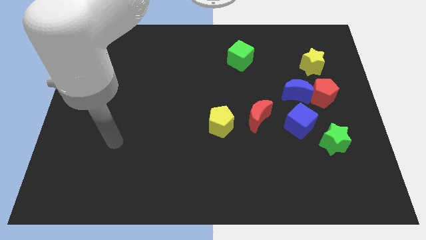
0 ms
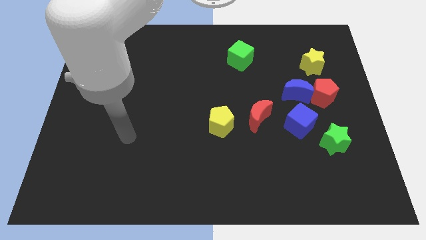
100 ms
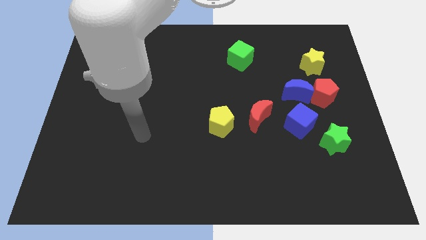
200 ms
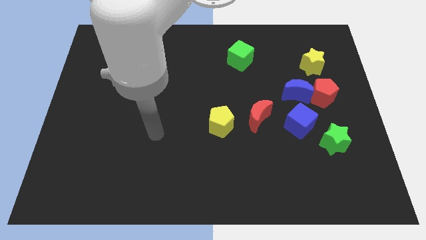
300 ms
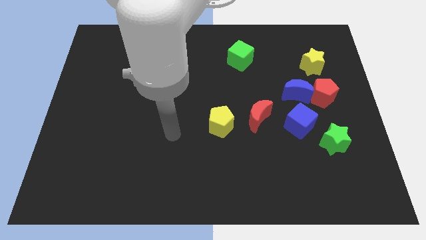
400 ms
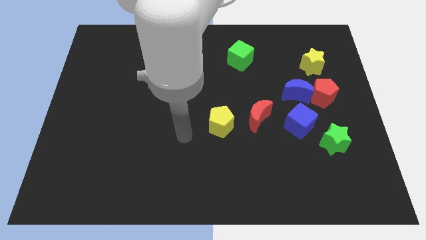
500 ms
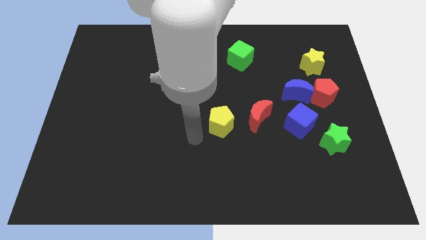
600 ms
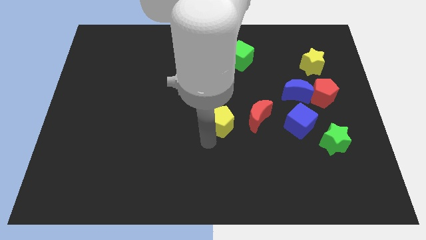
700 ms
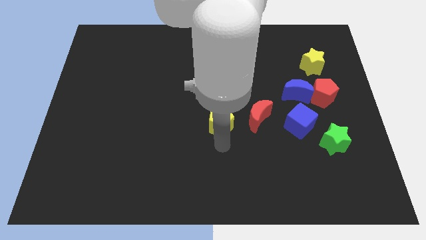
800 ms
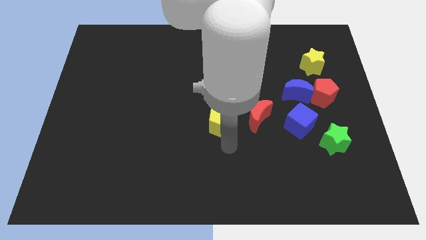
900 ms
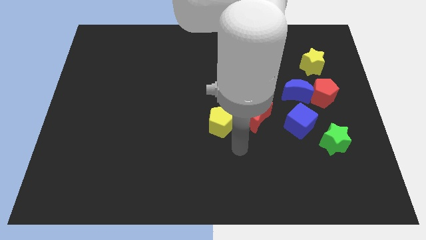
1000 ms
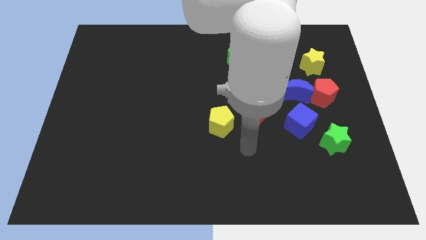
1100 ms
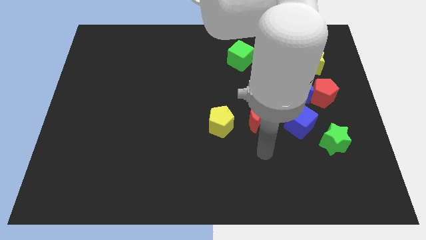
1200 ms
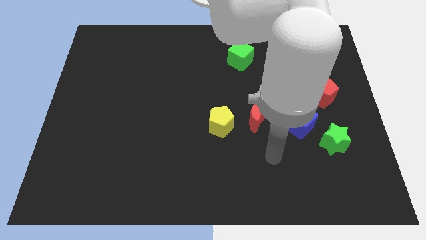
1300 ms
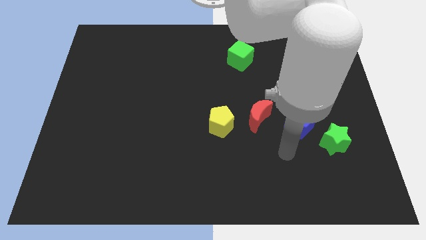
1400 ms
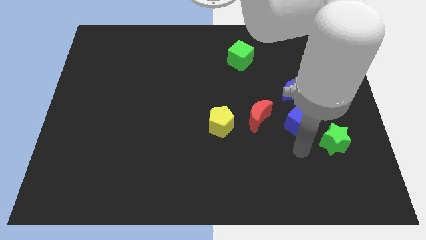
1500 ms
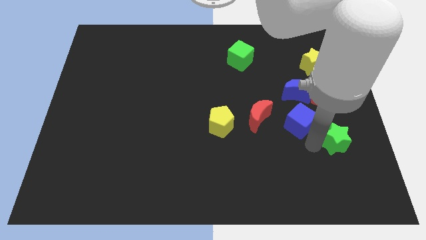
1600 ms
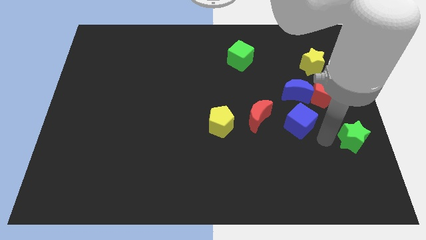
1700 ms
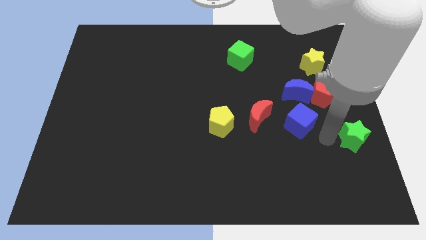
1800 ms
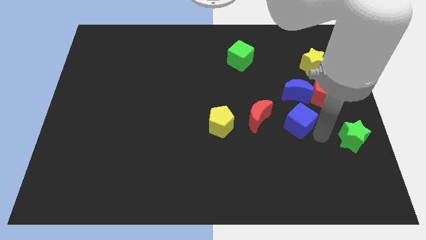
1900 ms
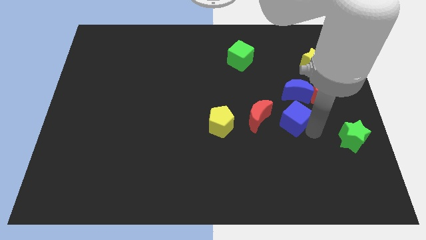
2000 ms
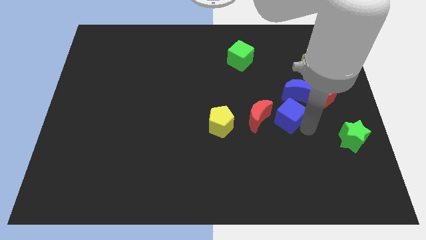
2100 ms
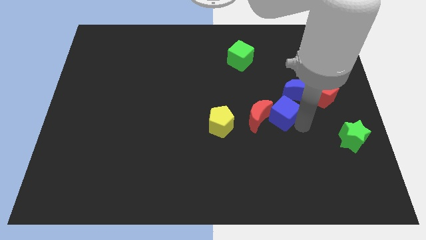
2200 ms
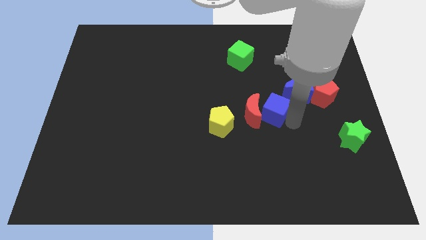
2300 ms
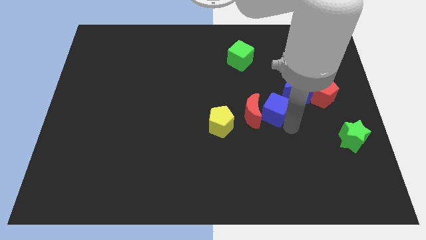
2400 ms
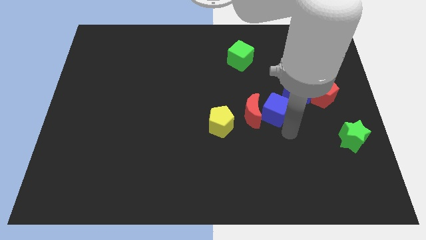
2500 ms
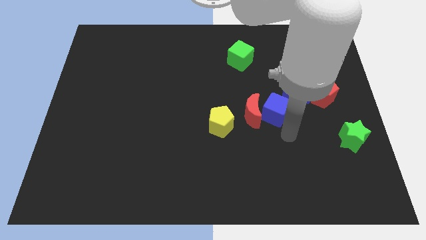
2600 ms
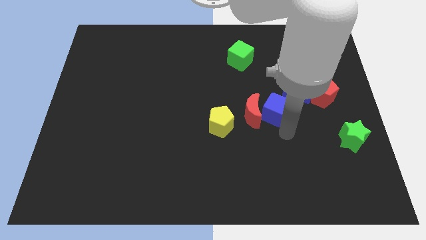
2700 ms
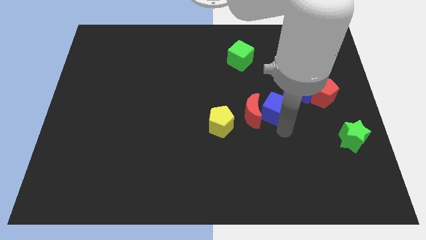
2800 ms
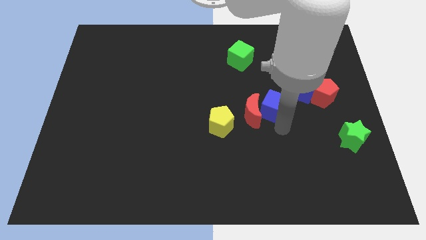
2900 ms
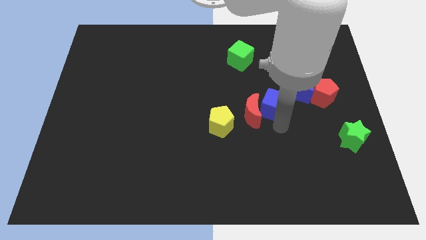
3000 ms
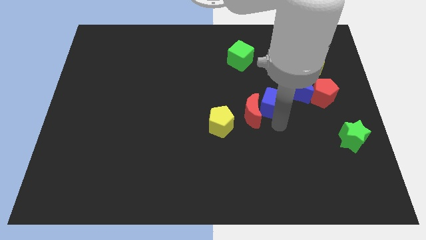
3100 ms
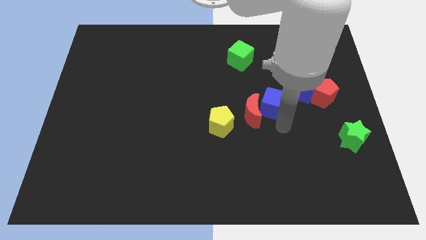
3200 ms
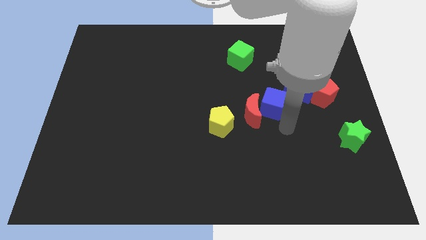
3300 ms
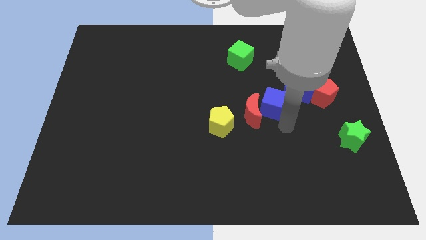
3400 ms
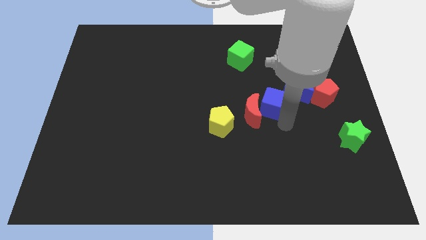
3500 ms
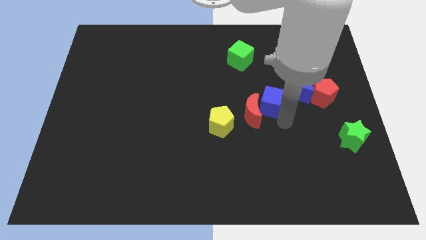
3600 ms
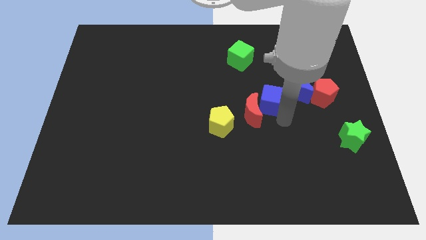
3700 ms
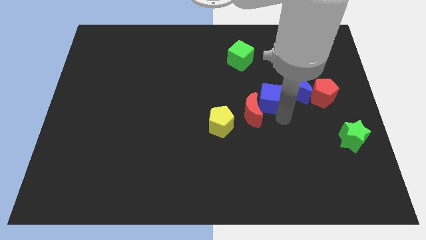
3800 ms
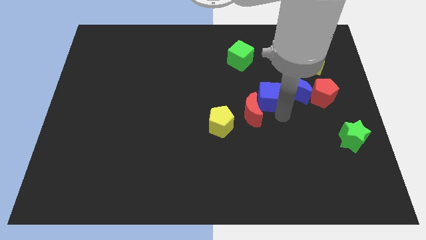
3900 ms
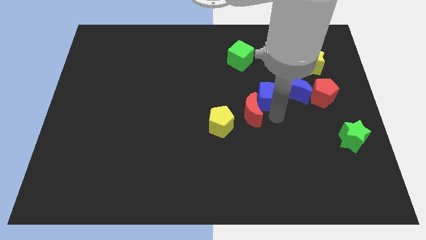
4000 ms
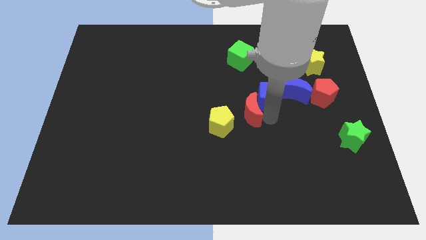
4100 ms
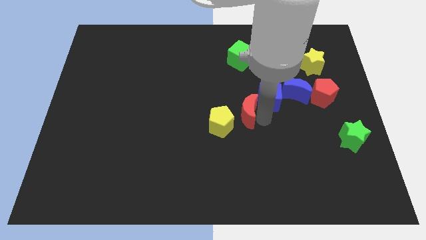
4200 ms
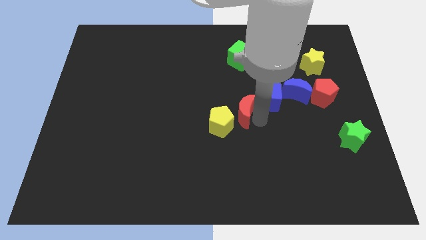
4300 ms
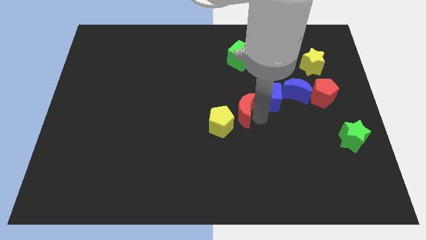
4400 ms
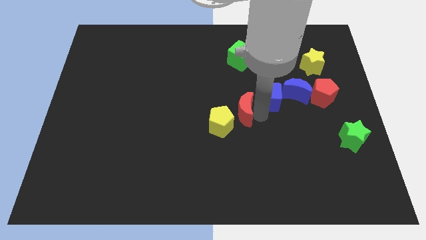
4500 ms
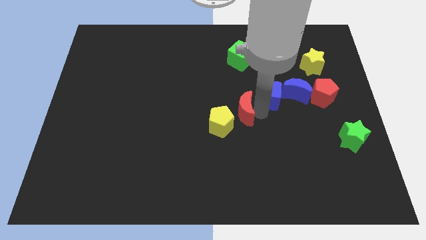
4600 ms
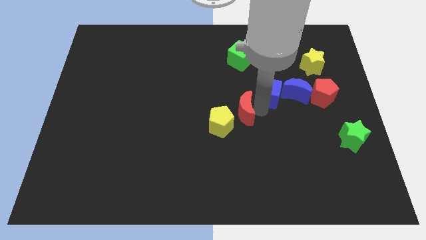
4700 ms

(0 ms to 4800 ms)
slightly move the blue cube up

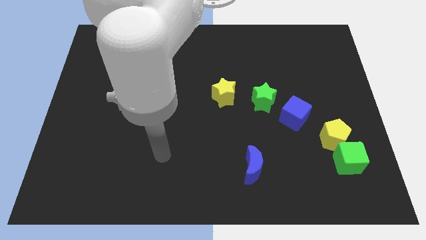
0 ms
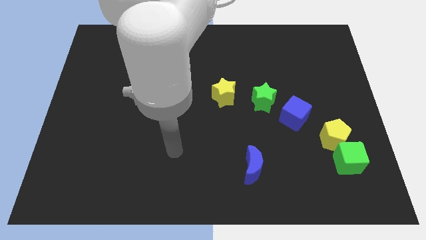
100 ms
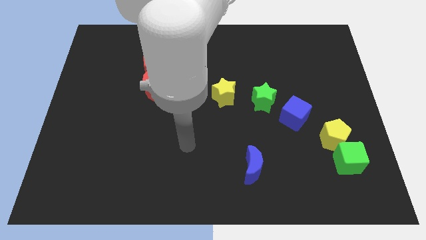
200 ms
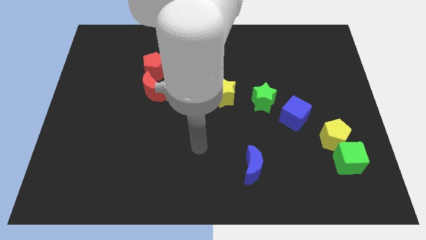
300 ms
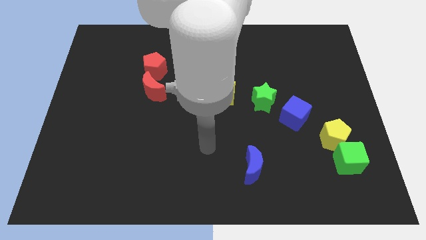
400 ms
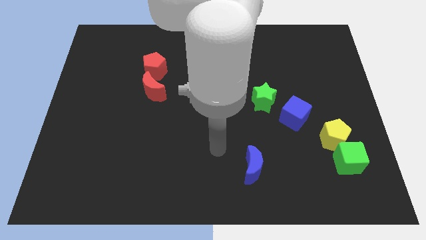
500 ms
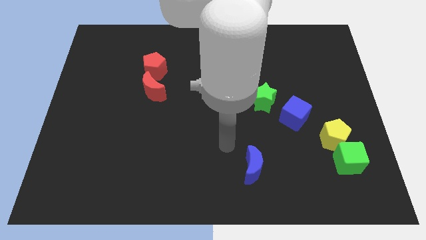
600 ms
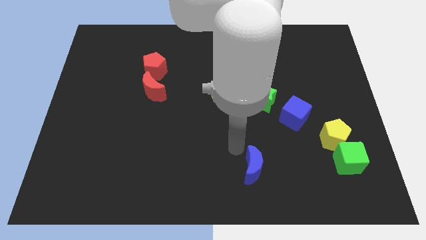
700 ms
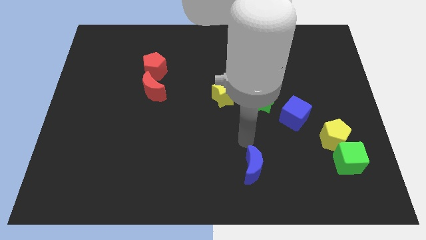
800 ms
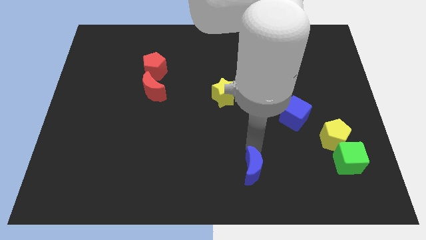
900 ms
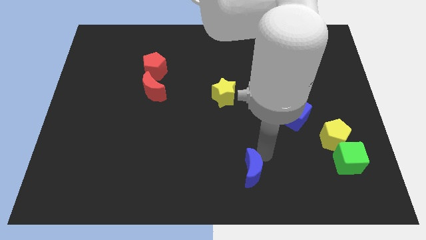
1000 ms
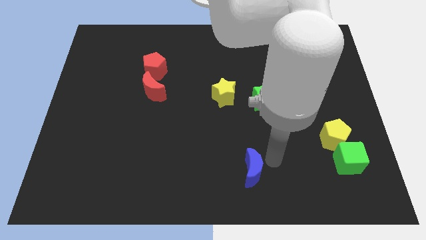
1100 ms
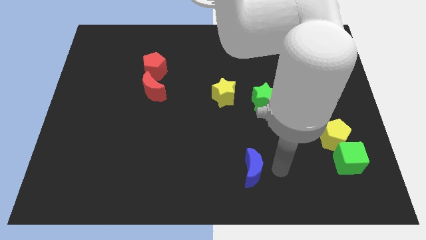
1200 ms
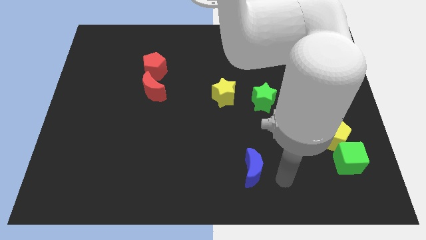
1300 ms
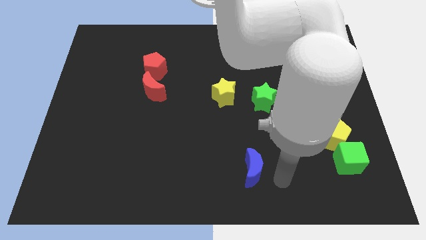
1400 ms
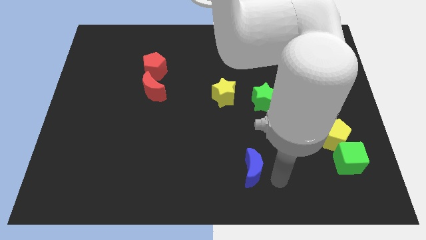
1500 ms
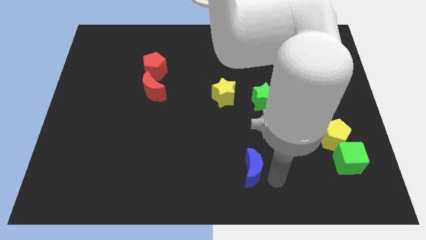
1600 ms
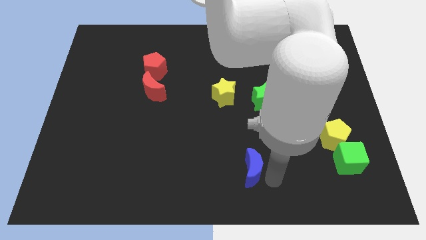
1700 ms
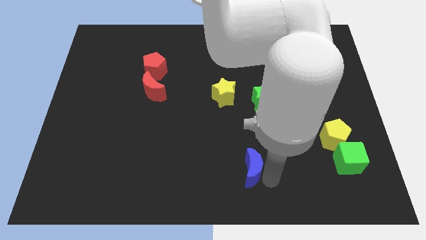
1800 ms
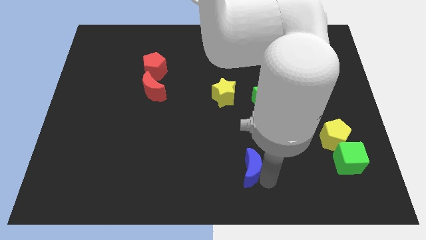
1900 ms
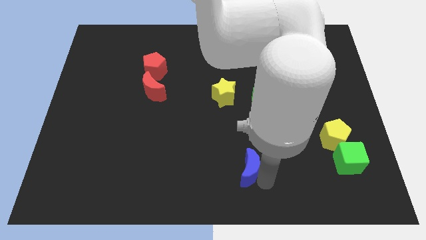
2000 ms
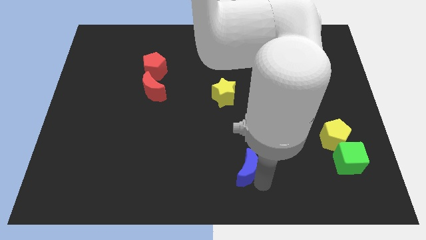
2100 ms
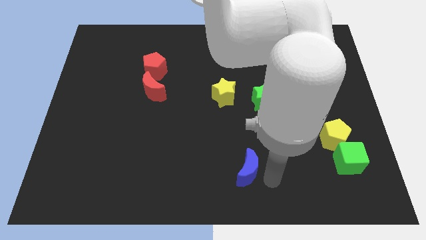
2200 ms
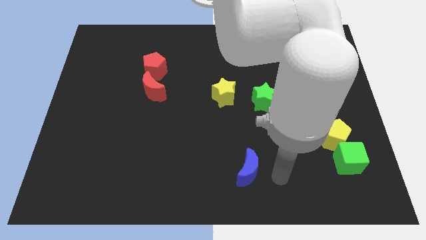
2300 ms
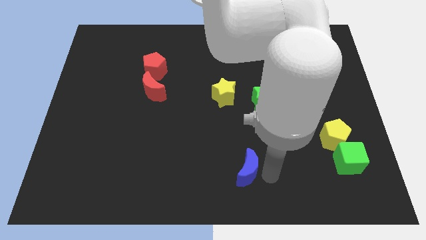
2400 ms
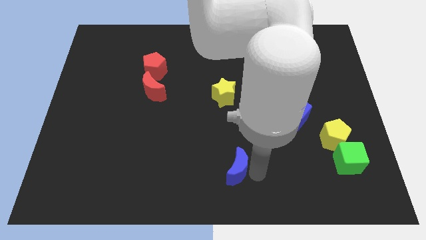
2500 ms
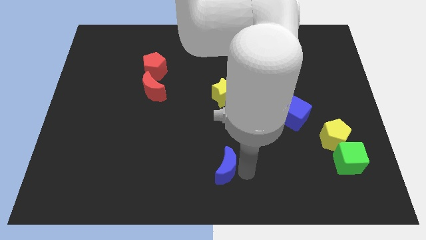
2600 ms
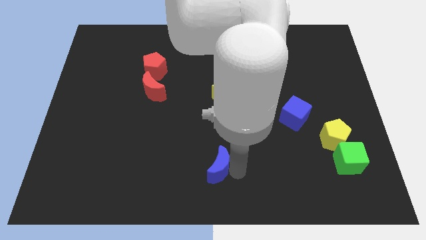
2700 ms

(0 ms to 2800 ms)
slightly slide the blue moon to the left

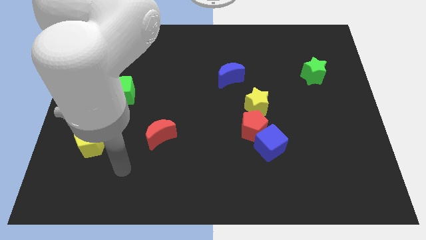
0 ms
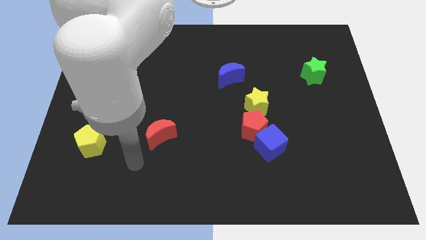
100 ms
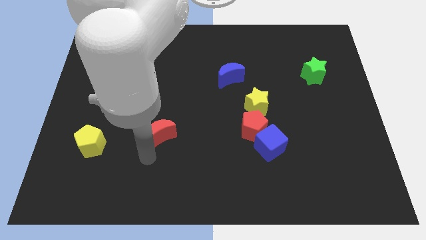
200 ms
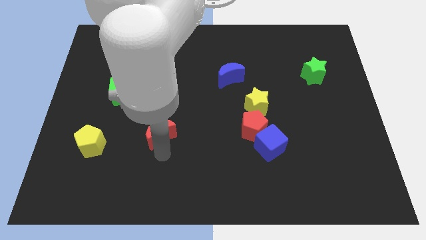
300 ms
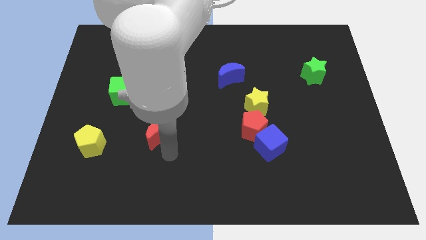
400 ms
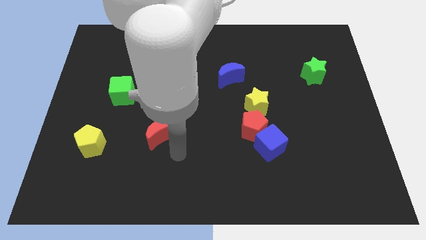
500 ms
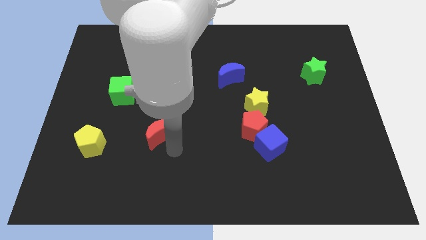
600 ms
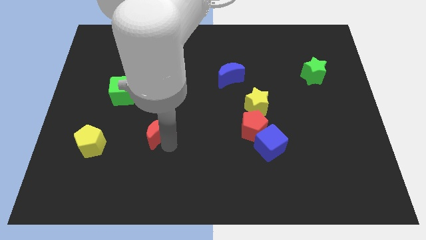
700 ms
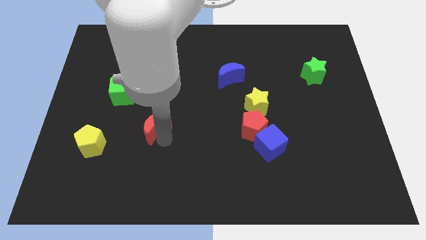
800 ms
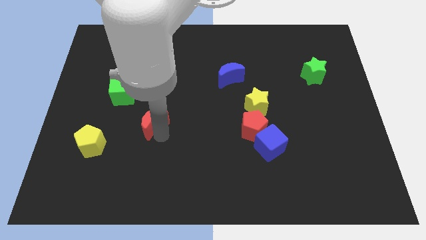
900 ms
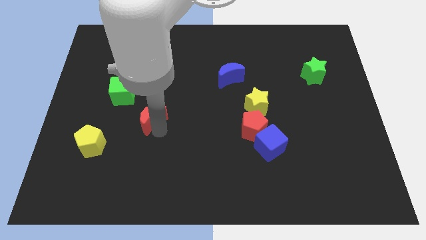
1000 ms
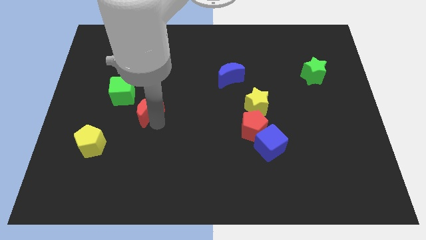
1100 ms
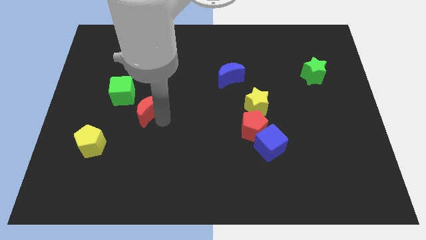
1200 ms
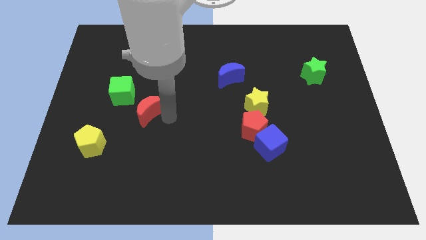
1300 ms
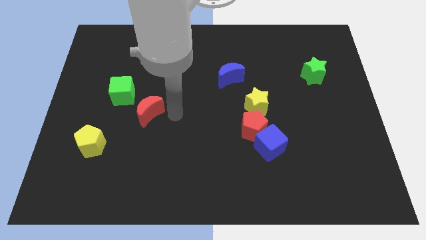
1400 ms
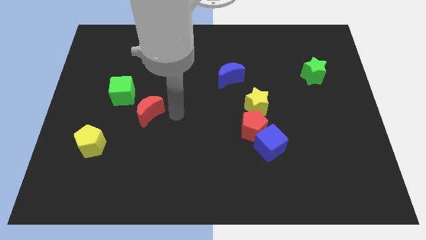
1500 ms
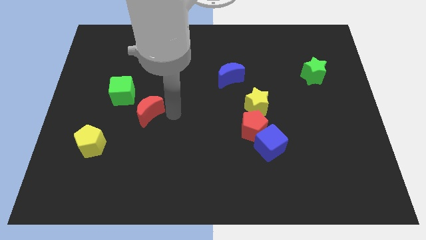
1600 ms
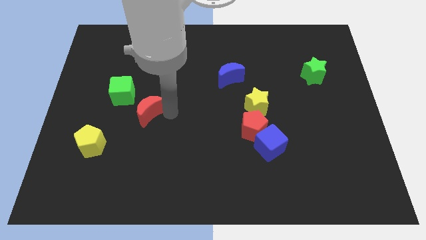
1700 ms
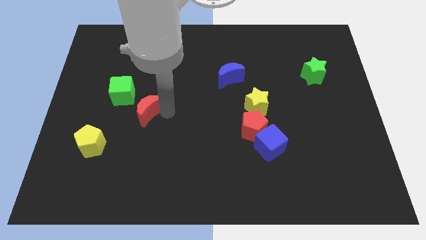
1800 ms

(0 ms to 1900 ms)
push the red moon upwards and to the left a bit
